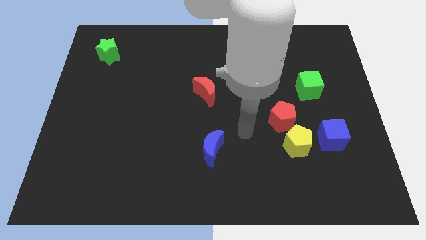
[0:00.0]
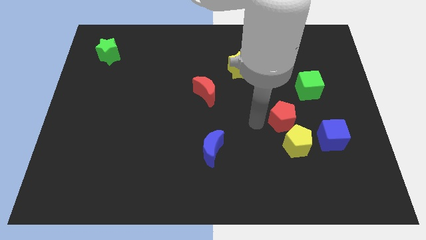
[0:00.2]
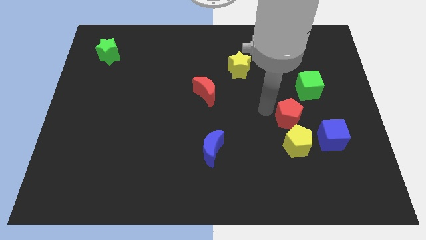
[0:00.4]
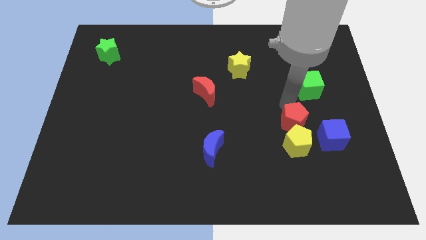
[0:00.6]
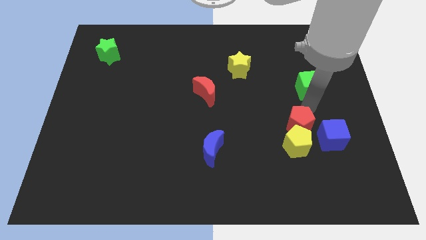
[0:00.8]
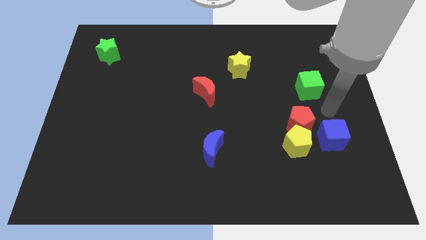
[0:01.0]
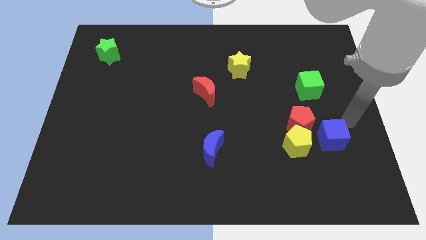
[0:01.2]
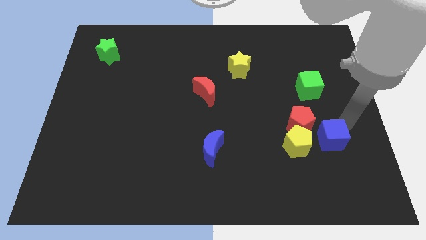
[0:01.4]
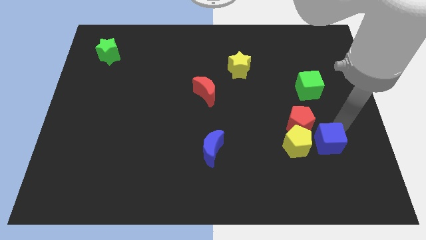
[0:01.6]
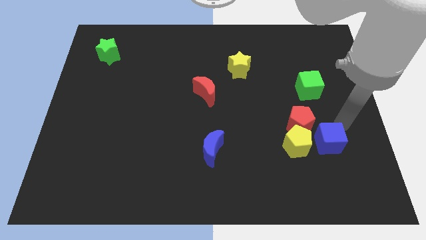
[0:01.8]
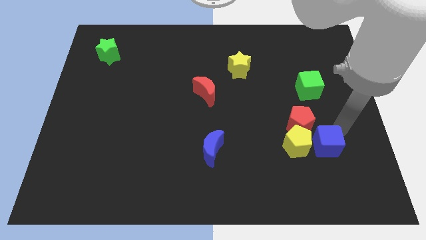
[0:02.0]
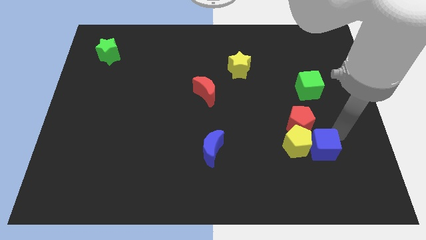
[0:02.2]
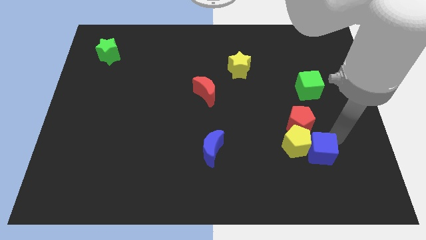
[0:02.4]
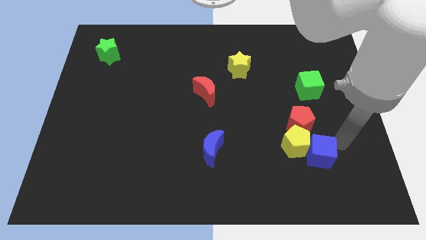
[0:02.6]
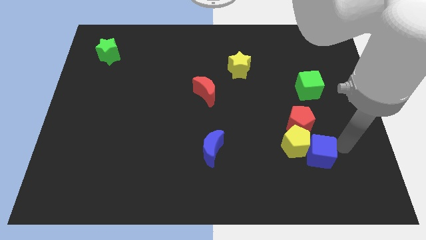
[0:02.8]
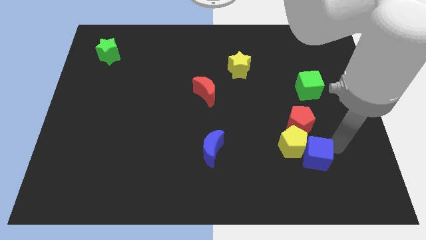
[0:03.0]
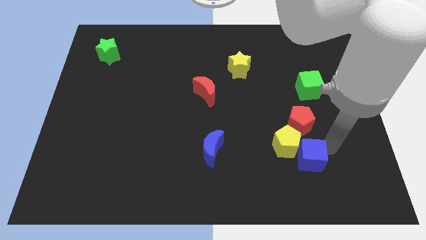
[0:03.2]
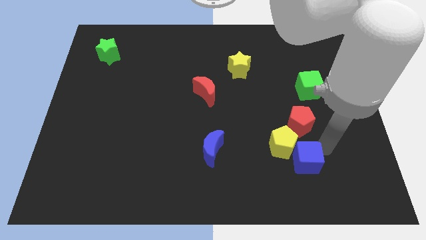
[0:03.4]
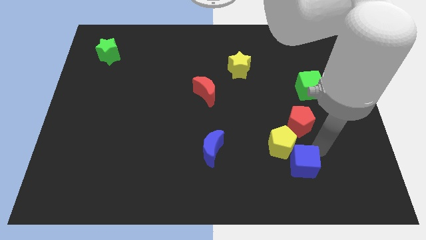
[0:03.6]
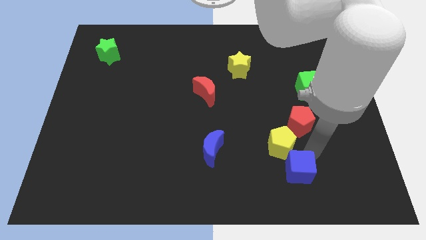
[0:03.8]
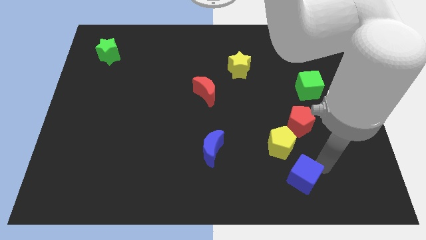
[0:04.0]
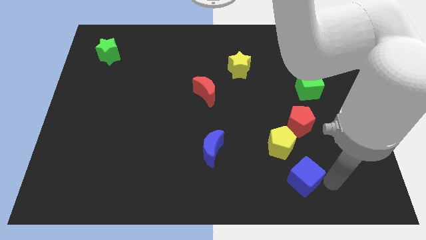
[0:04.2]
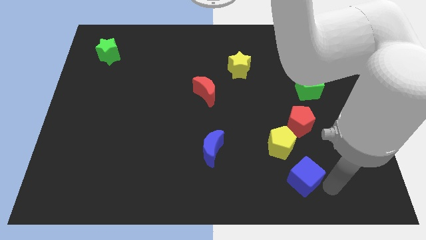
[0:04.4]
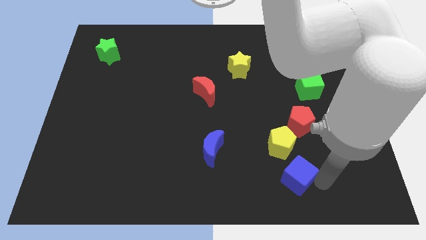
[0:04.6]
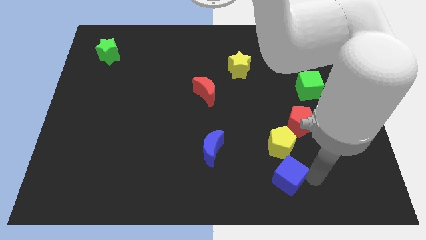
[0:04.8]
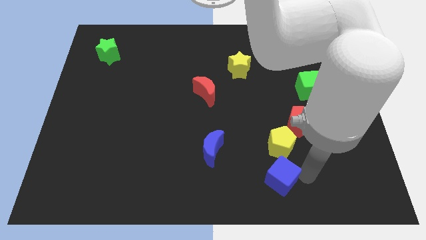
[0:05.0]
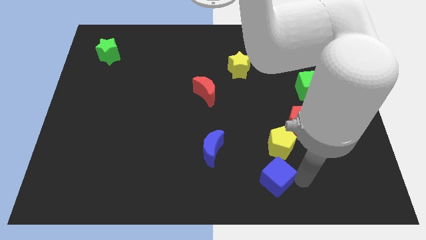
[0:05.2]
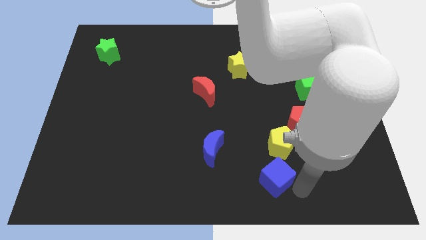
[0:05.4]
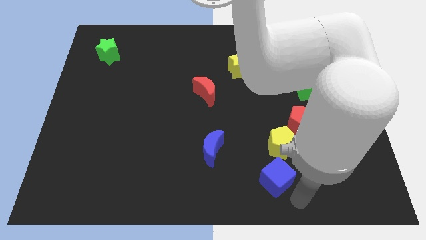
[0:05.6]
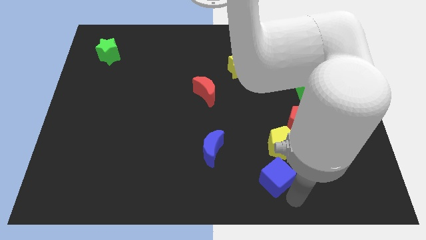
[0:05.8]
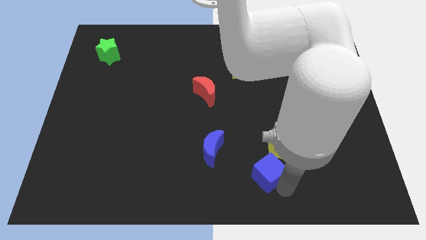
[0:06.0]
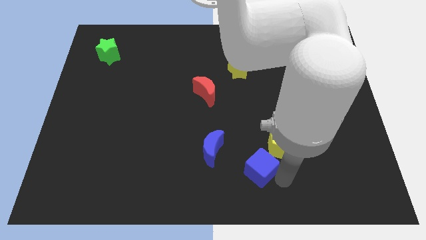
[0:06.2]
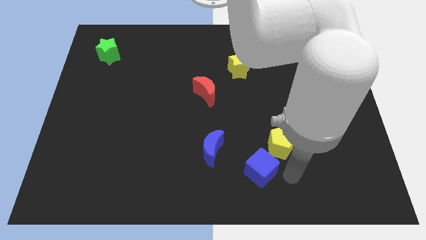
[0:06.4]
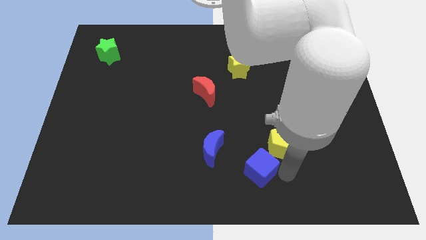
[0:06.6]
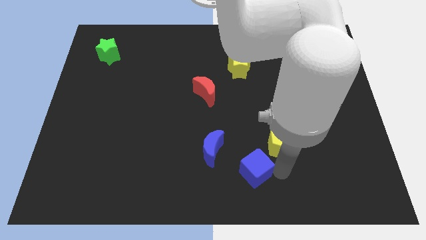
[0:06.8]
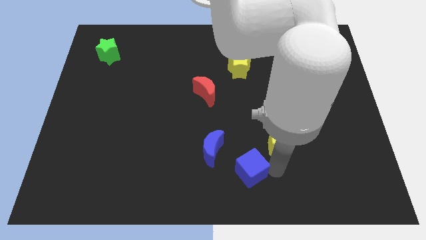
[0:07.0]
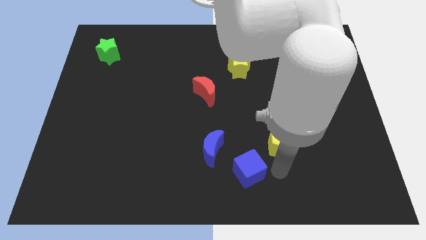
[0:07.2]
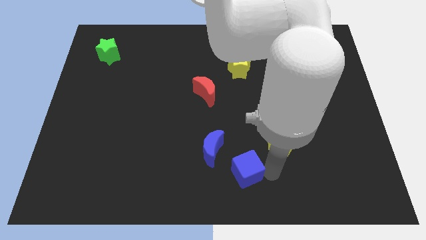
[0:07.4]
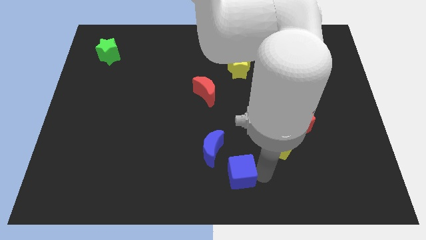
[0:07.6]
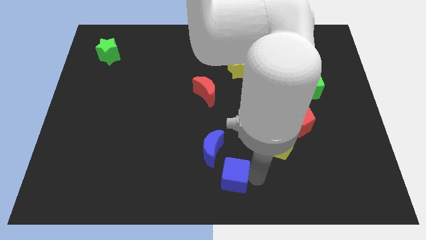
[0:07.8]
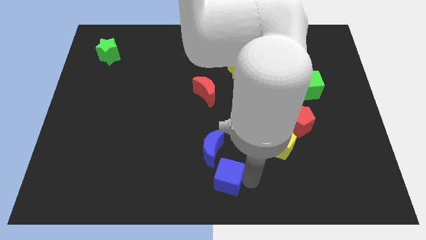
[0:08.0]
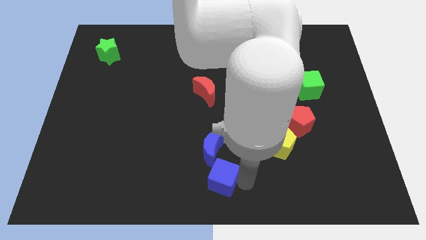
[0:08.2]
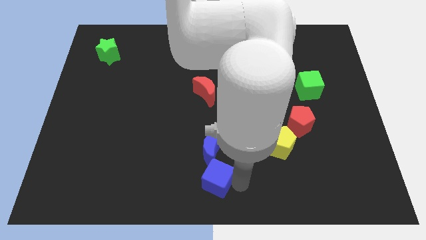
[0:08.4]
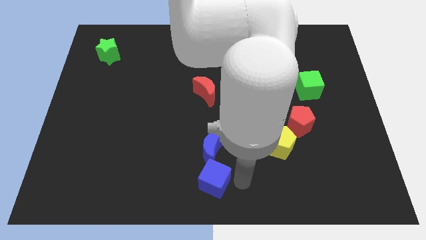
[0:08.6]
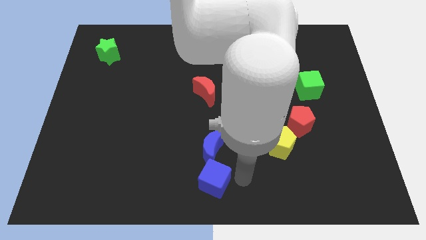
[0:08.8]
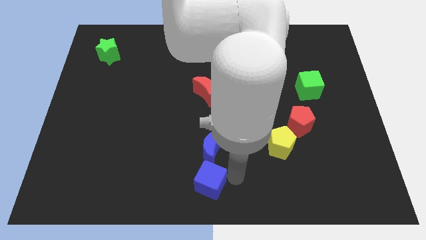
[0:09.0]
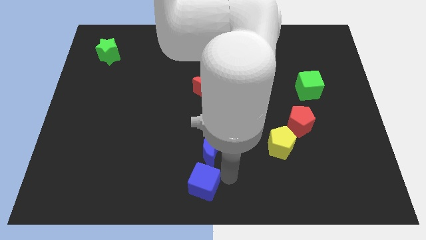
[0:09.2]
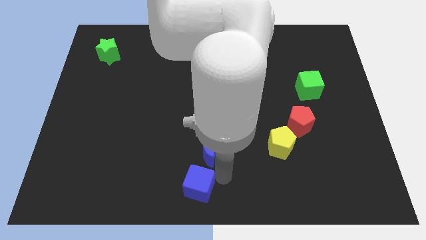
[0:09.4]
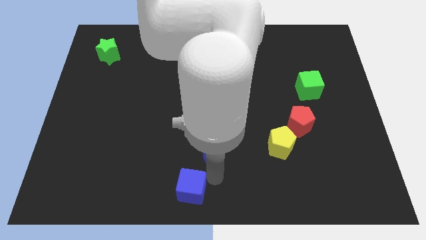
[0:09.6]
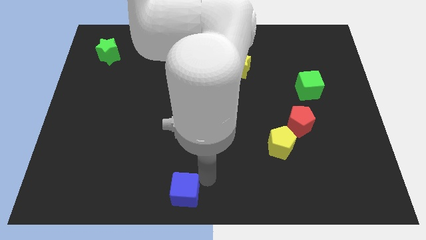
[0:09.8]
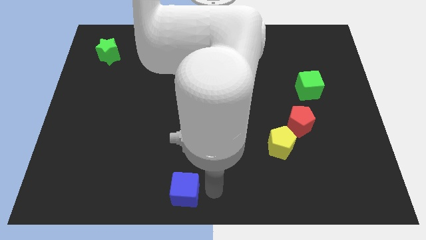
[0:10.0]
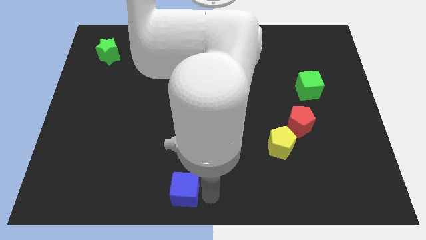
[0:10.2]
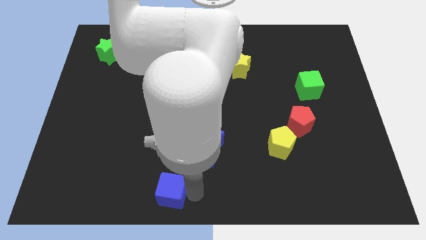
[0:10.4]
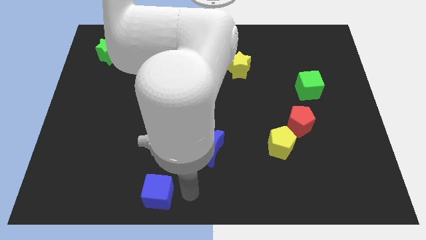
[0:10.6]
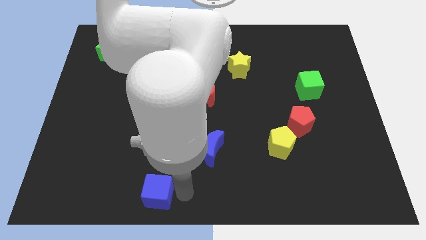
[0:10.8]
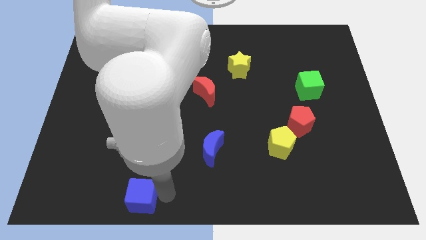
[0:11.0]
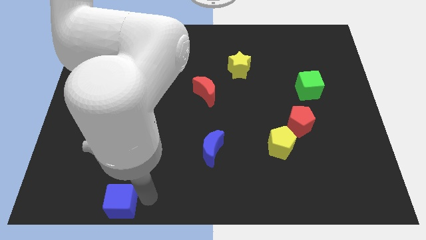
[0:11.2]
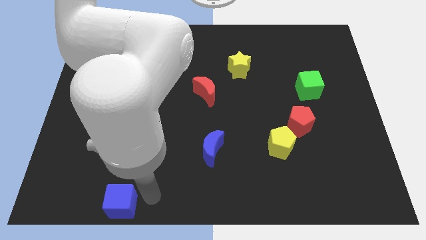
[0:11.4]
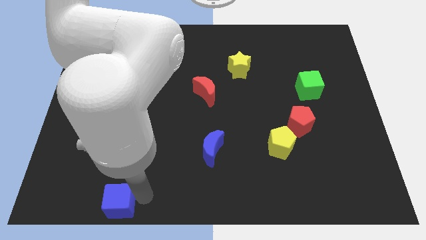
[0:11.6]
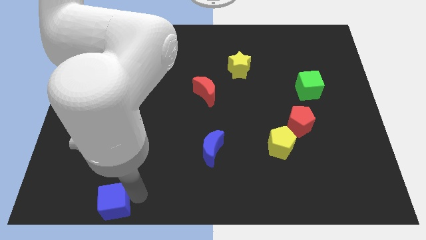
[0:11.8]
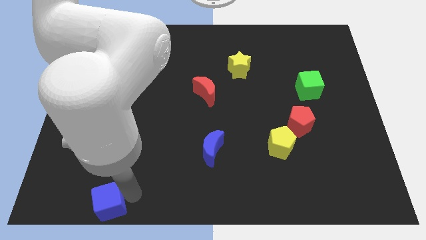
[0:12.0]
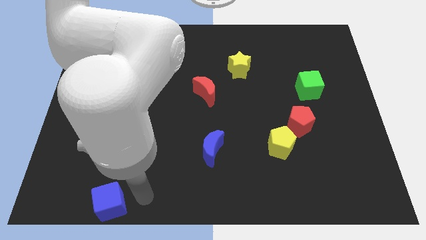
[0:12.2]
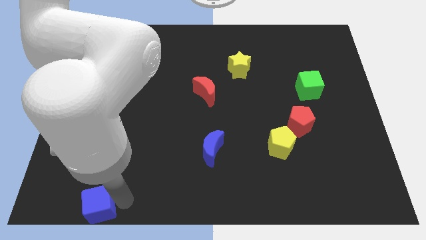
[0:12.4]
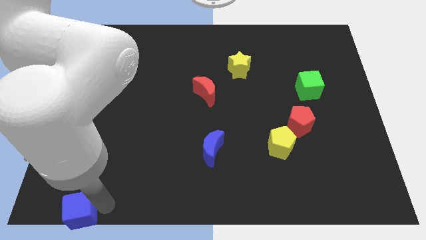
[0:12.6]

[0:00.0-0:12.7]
move the blue cube to the bottom left
